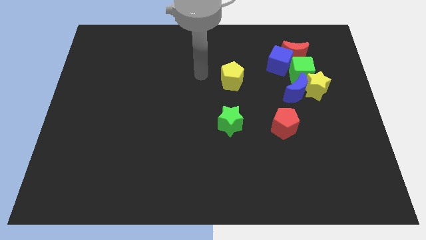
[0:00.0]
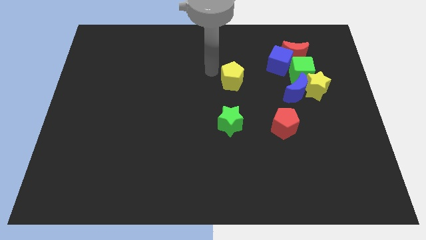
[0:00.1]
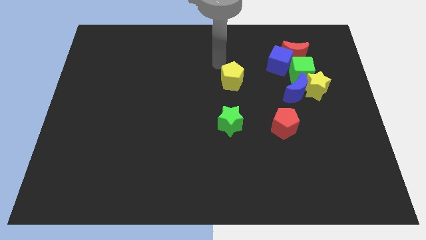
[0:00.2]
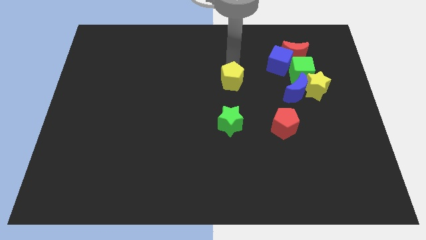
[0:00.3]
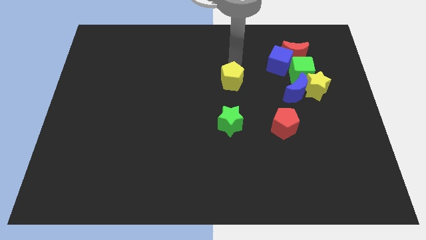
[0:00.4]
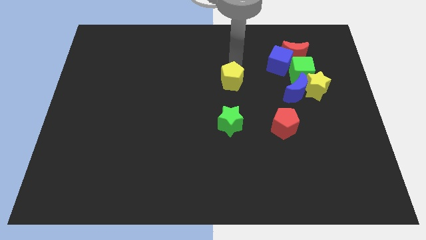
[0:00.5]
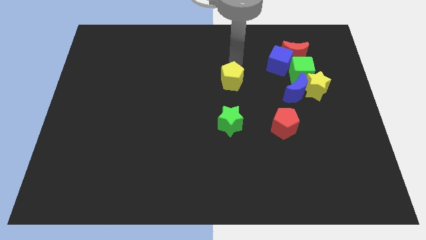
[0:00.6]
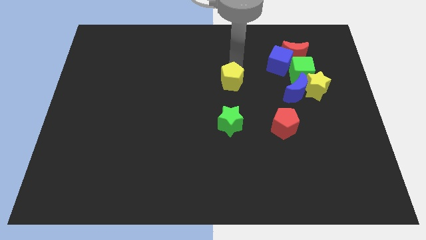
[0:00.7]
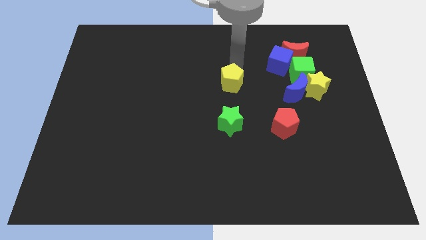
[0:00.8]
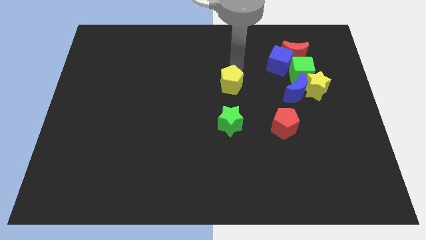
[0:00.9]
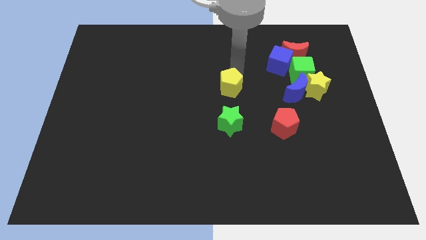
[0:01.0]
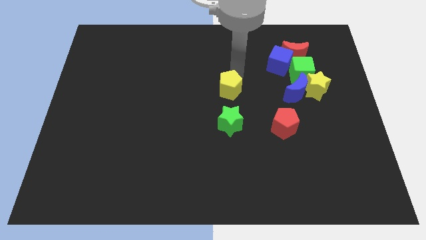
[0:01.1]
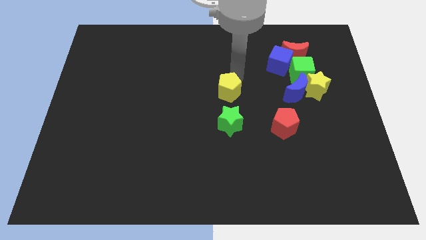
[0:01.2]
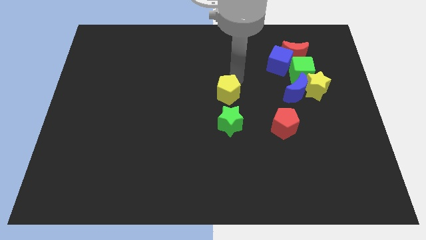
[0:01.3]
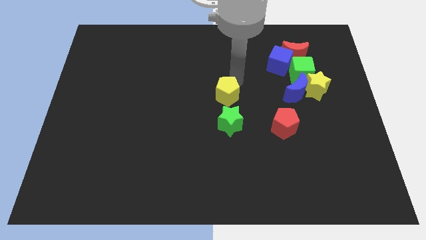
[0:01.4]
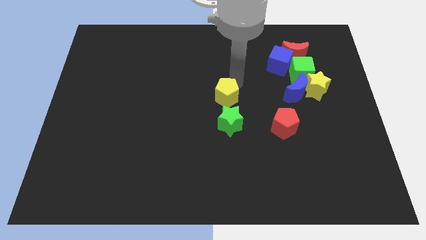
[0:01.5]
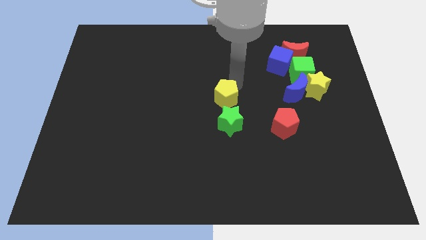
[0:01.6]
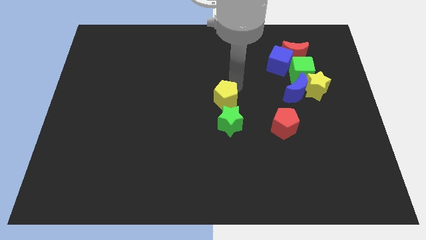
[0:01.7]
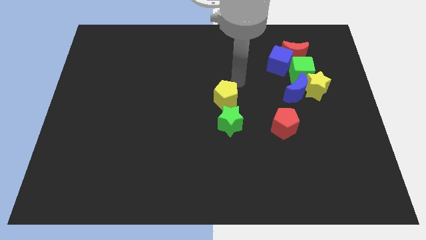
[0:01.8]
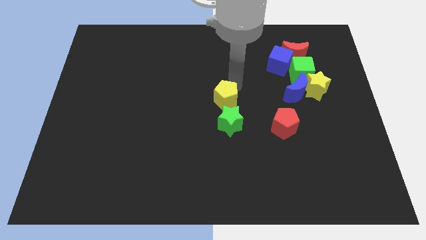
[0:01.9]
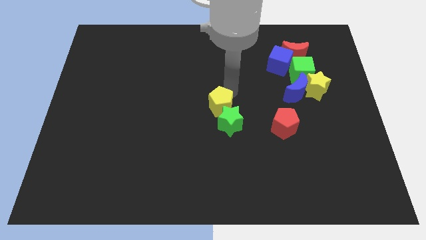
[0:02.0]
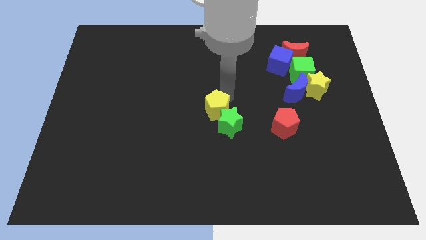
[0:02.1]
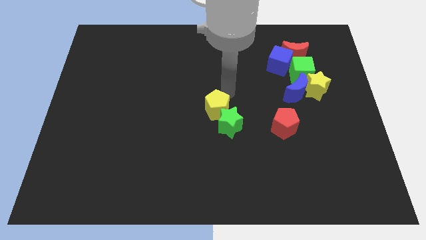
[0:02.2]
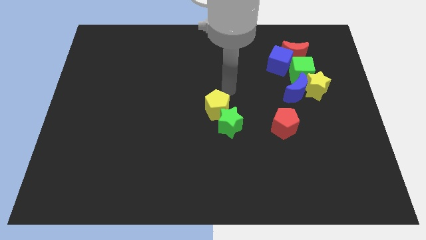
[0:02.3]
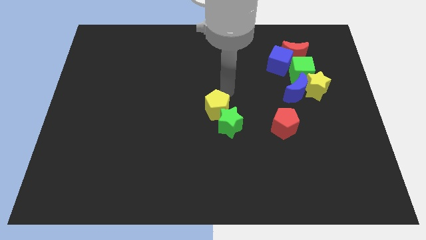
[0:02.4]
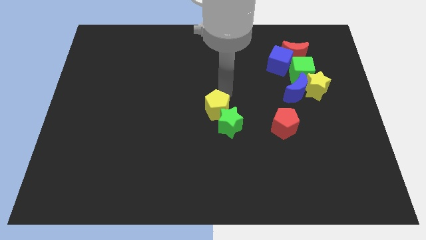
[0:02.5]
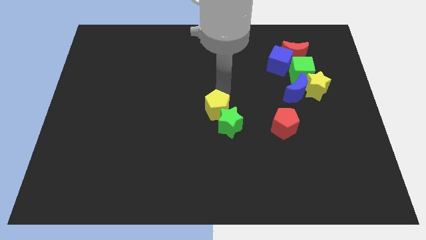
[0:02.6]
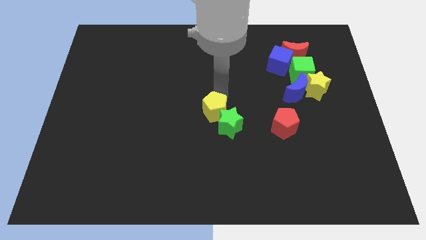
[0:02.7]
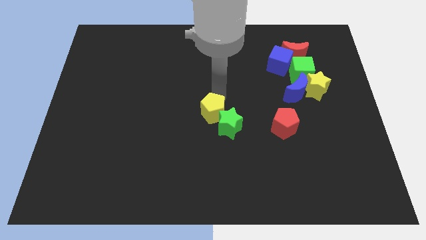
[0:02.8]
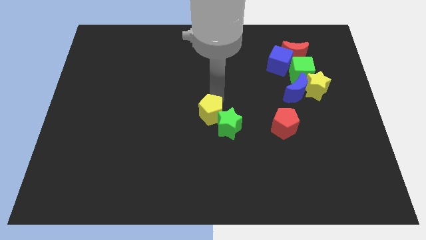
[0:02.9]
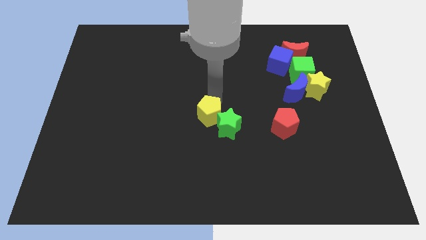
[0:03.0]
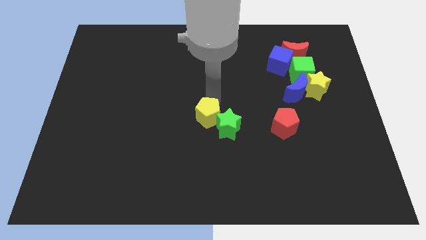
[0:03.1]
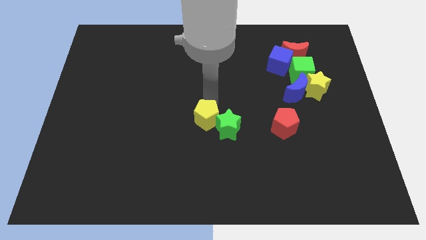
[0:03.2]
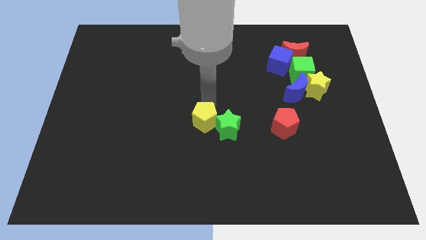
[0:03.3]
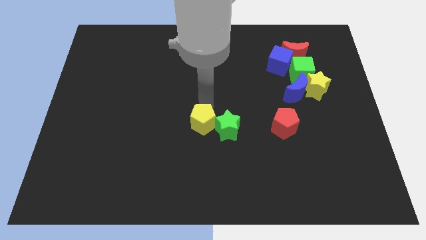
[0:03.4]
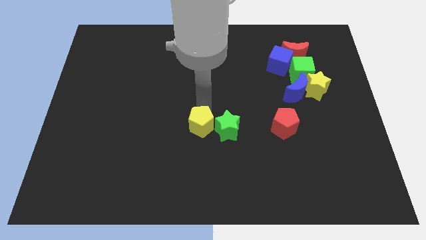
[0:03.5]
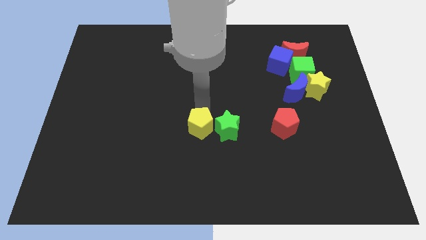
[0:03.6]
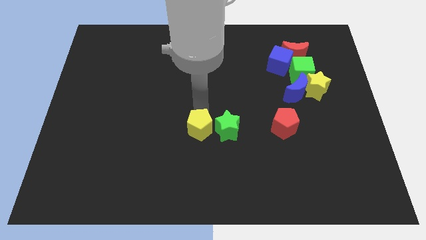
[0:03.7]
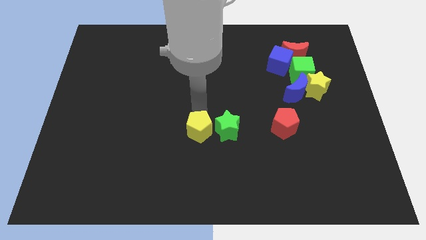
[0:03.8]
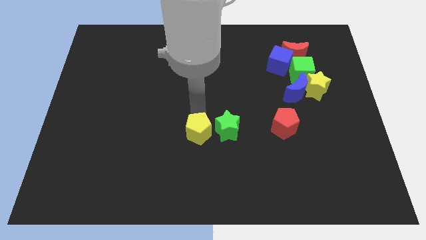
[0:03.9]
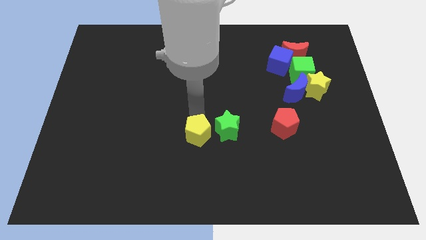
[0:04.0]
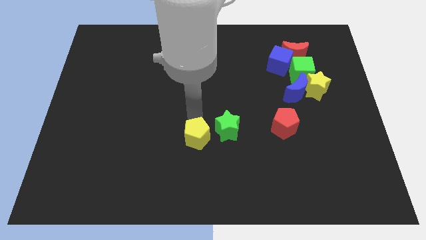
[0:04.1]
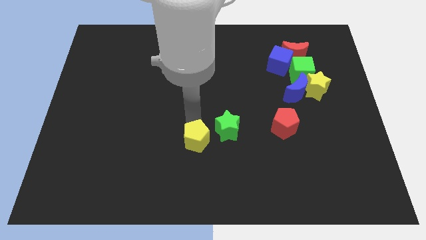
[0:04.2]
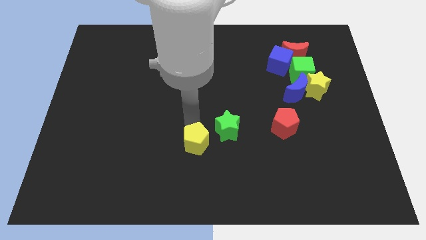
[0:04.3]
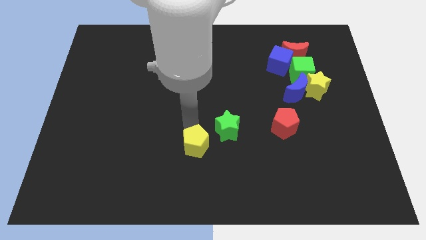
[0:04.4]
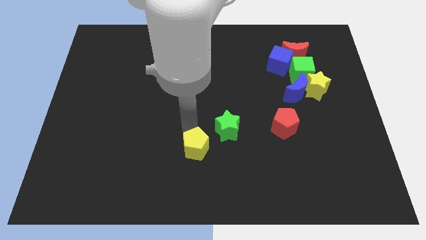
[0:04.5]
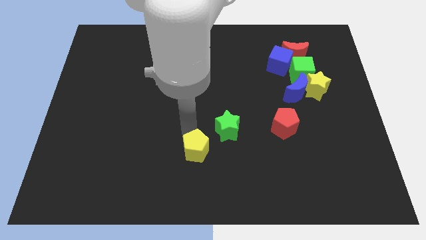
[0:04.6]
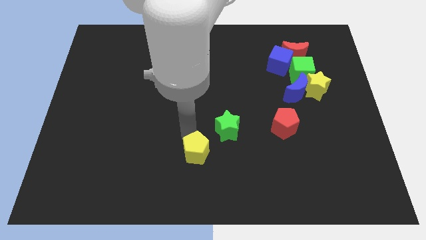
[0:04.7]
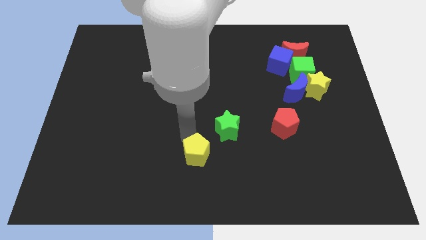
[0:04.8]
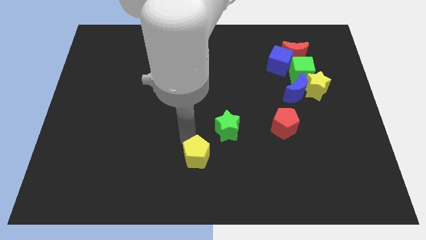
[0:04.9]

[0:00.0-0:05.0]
put the yellow pentagon to the bottom

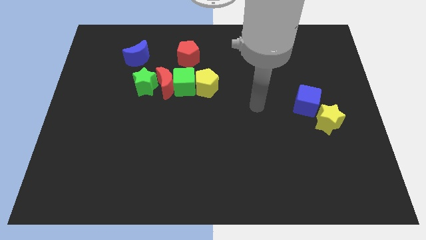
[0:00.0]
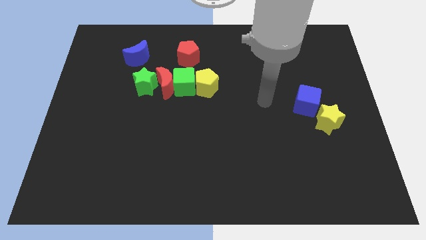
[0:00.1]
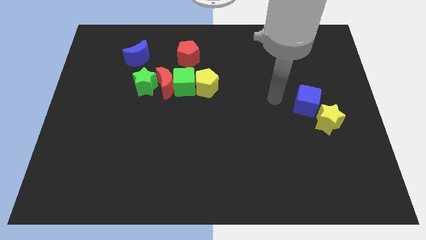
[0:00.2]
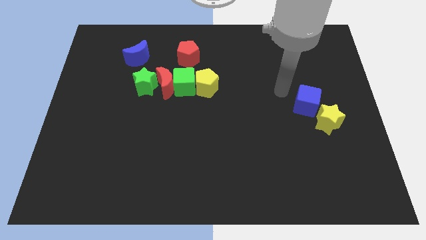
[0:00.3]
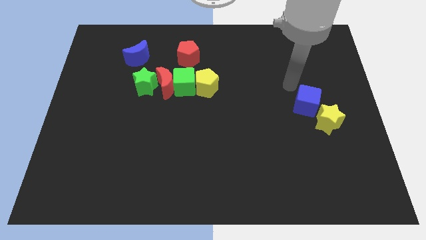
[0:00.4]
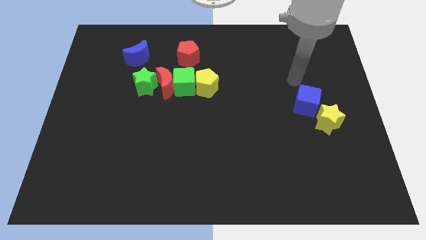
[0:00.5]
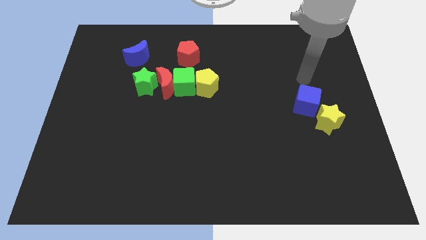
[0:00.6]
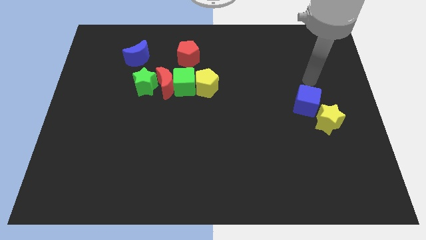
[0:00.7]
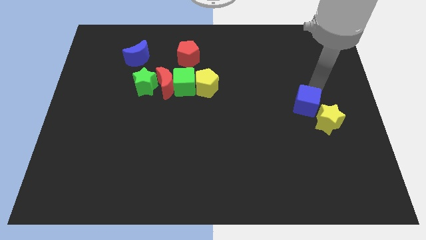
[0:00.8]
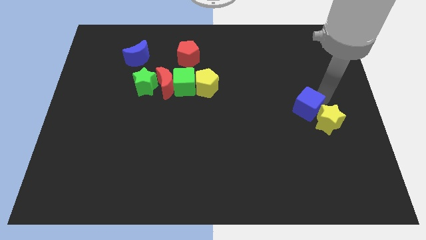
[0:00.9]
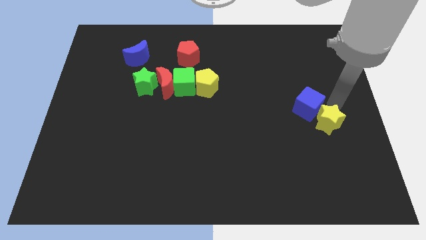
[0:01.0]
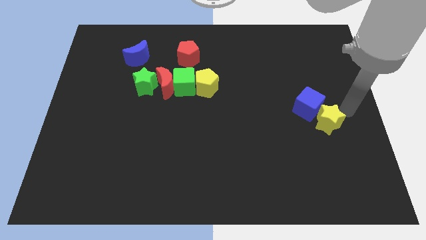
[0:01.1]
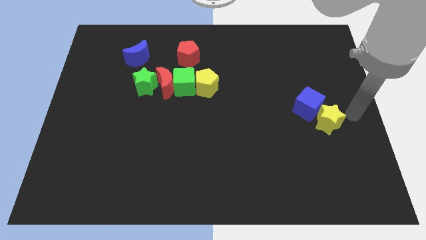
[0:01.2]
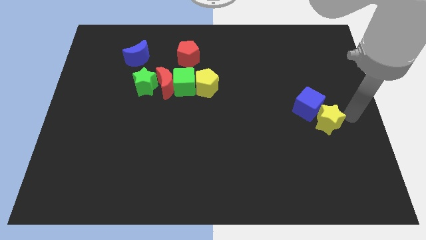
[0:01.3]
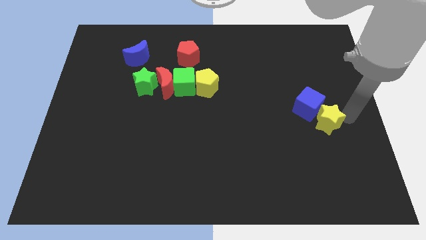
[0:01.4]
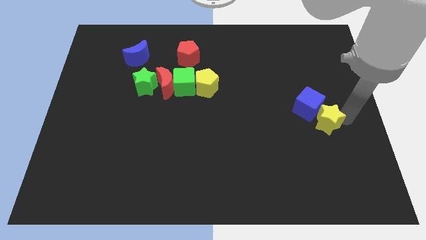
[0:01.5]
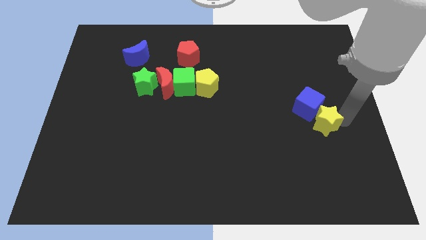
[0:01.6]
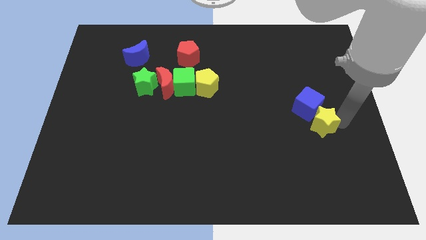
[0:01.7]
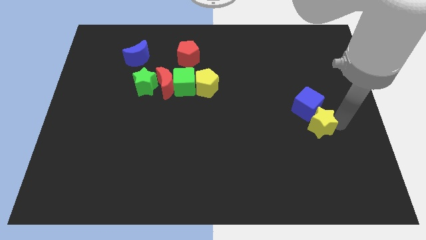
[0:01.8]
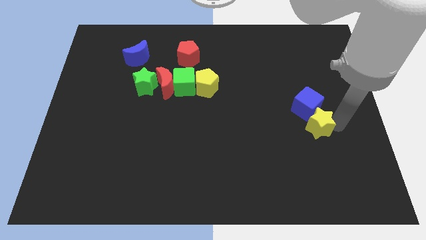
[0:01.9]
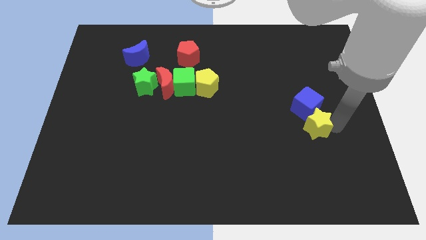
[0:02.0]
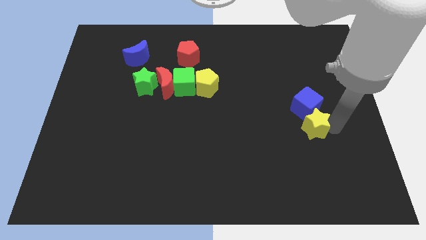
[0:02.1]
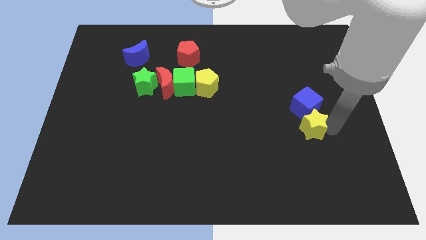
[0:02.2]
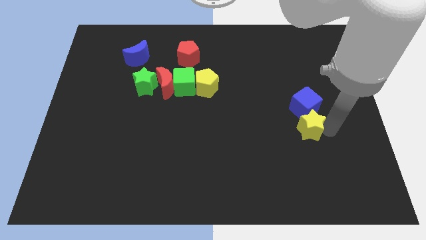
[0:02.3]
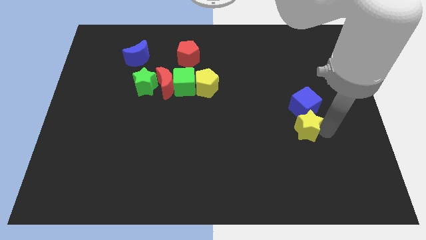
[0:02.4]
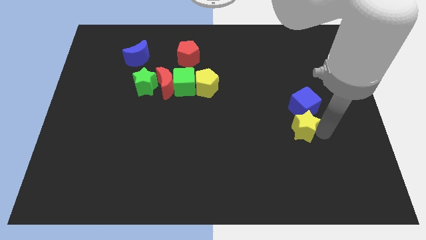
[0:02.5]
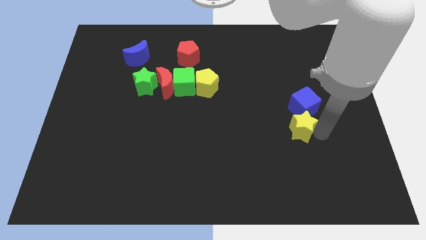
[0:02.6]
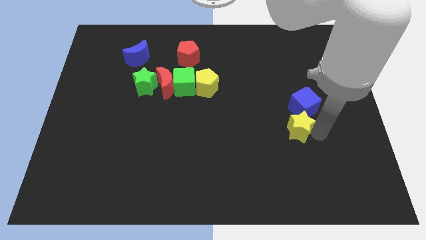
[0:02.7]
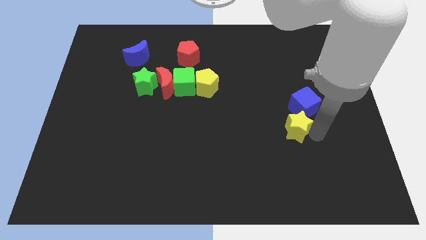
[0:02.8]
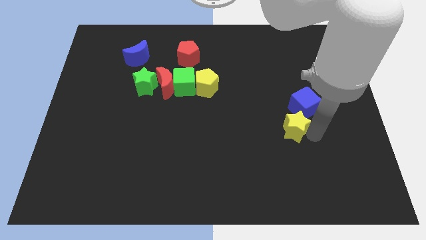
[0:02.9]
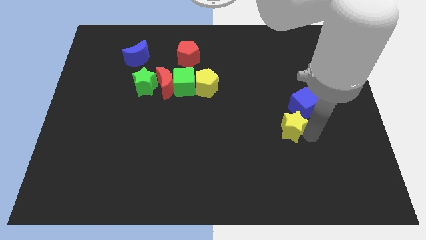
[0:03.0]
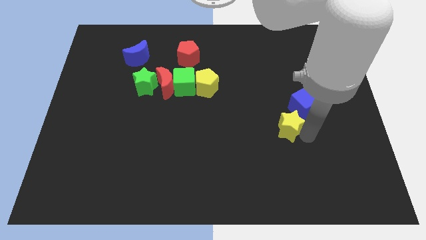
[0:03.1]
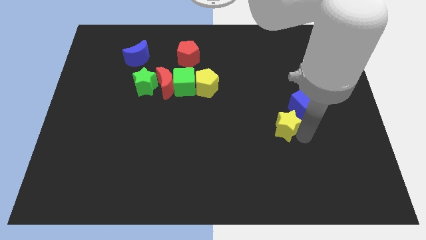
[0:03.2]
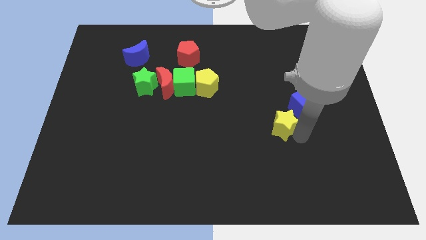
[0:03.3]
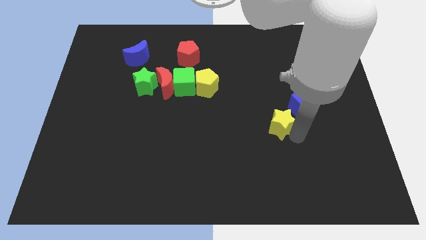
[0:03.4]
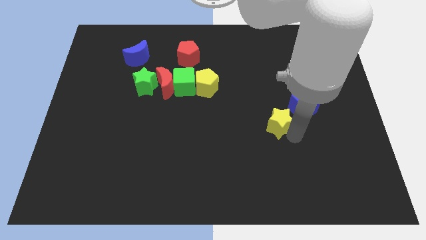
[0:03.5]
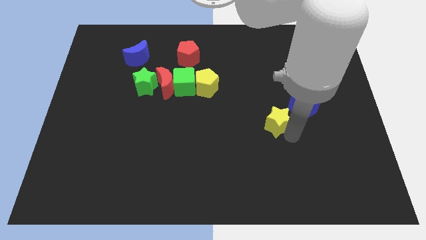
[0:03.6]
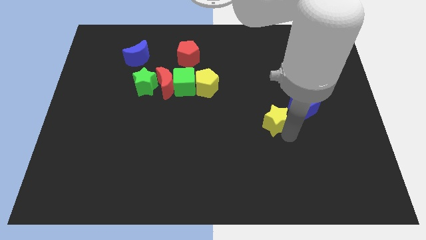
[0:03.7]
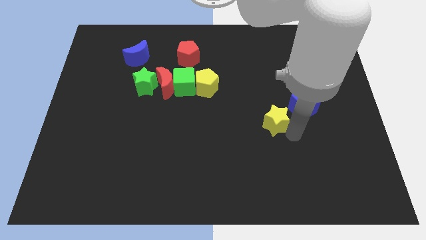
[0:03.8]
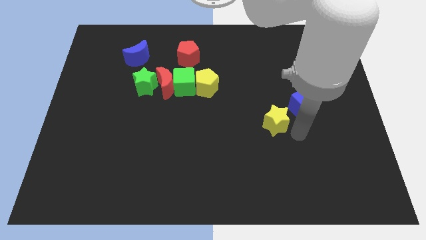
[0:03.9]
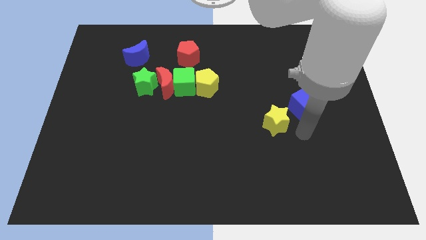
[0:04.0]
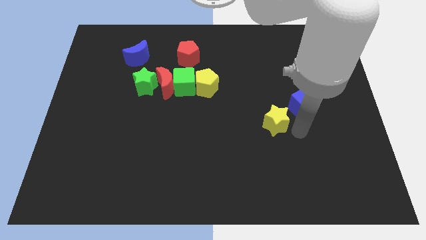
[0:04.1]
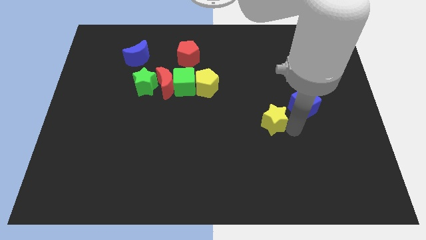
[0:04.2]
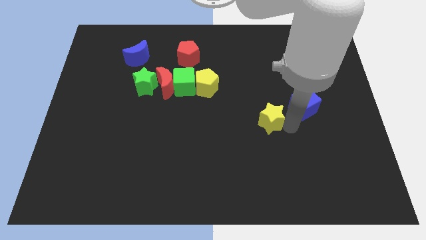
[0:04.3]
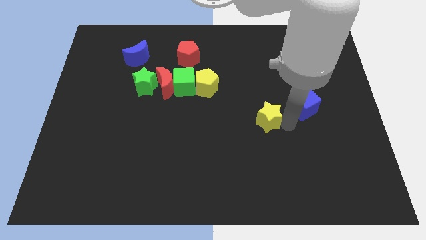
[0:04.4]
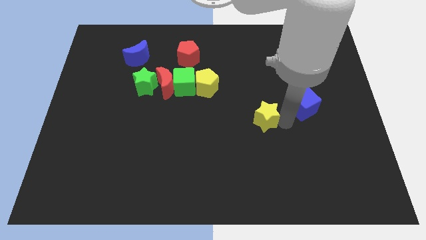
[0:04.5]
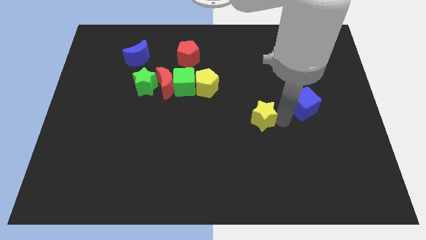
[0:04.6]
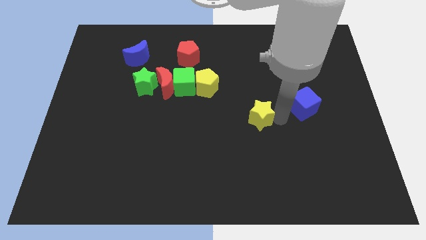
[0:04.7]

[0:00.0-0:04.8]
put the yellow star to the center of the board
